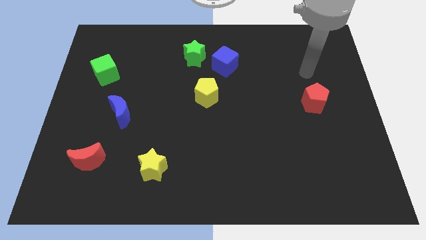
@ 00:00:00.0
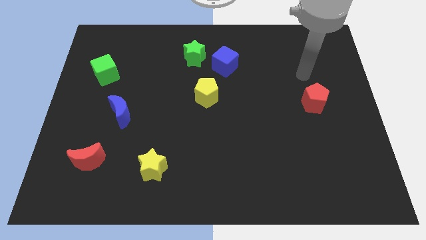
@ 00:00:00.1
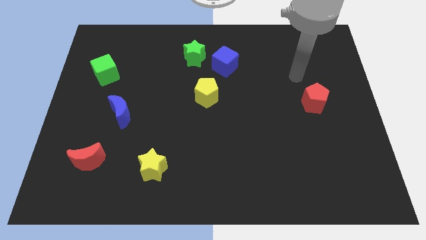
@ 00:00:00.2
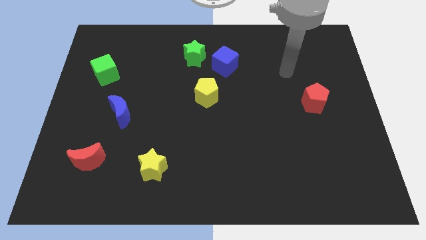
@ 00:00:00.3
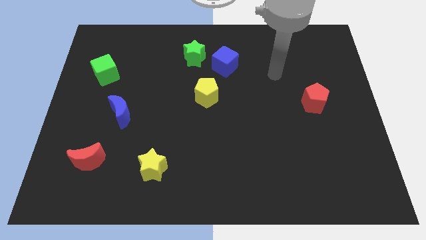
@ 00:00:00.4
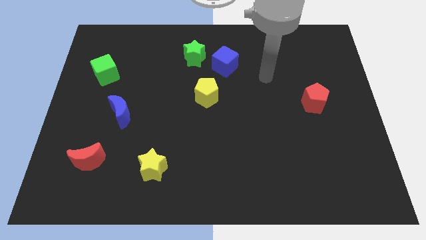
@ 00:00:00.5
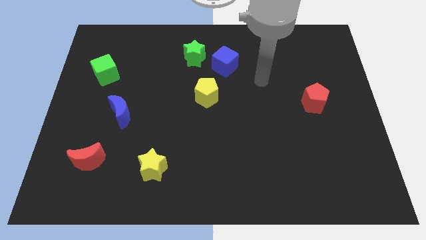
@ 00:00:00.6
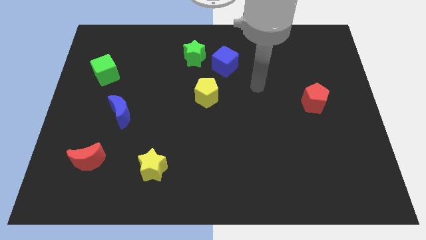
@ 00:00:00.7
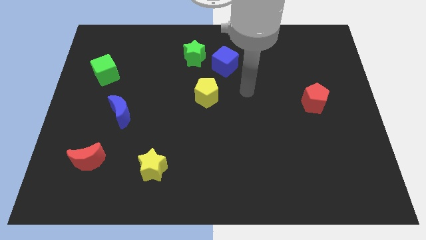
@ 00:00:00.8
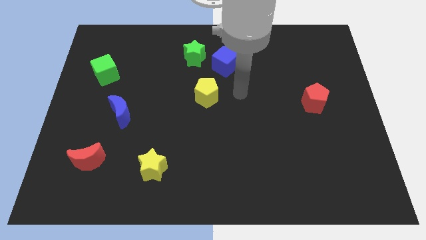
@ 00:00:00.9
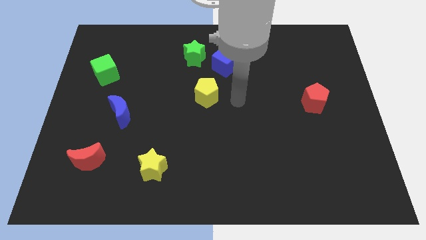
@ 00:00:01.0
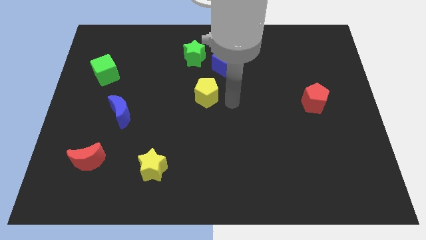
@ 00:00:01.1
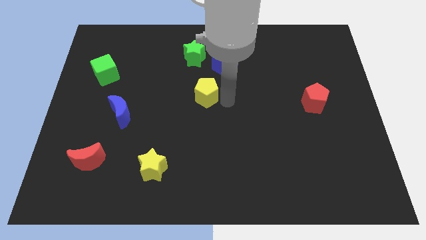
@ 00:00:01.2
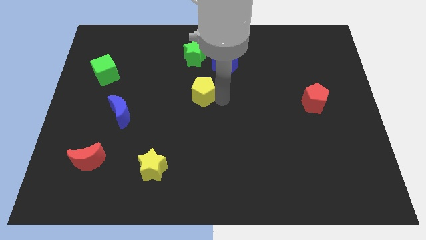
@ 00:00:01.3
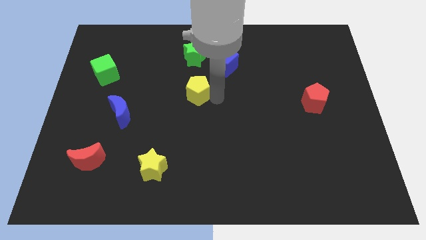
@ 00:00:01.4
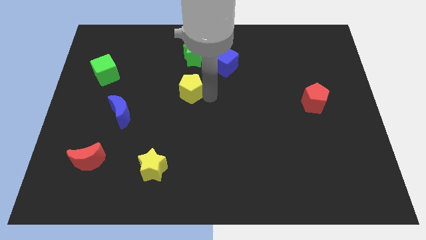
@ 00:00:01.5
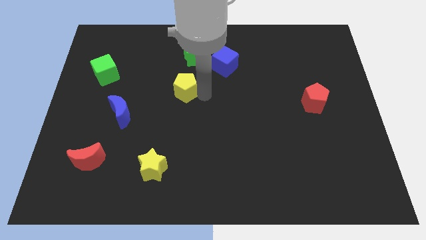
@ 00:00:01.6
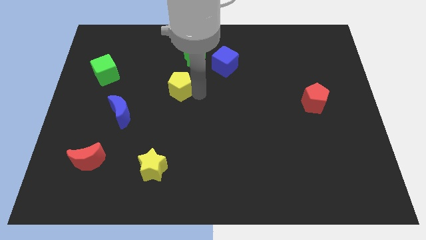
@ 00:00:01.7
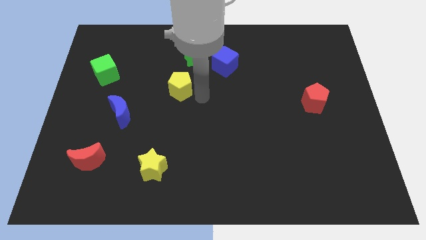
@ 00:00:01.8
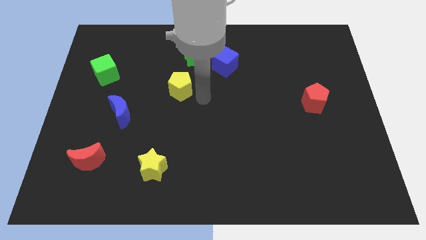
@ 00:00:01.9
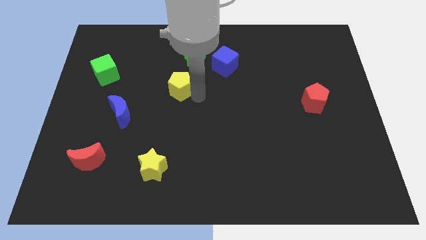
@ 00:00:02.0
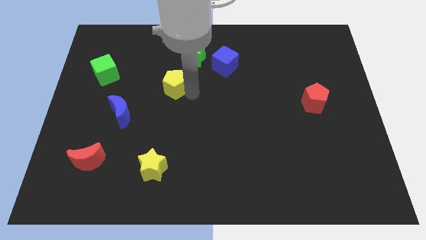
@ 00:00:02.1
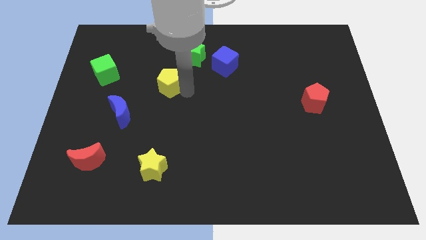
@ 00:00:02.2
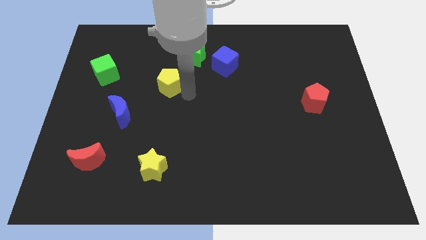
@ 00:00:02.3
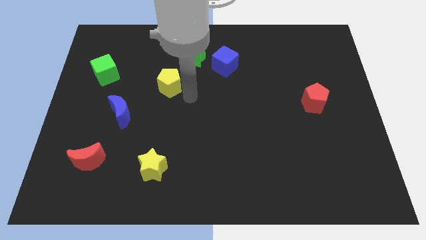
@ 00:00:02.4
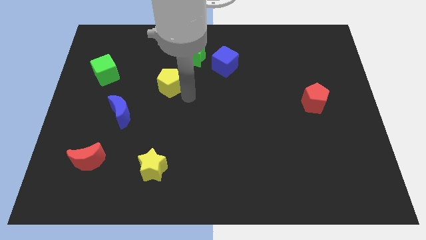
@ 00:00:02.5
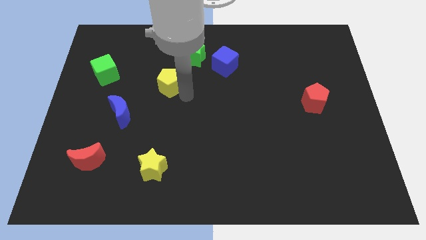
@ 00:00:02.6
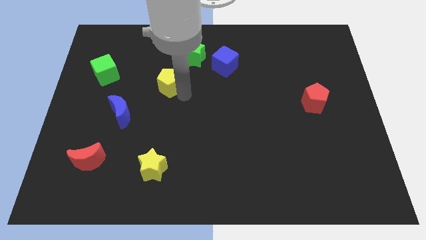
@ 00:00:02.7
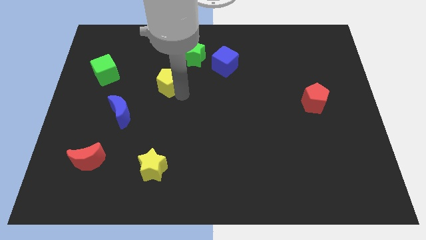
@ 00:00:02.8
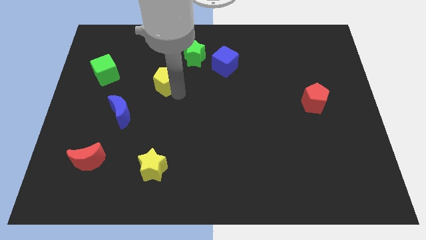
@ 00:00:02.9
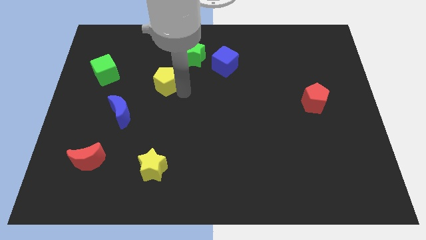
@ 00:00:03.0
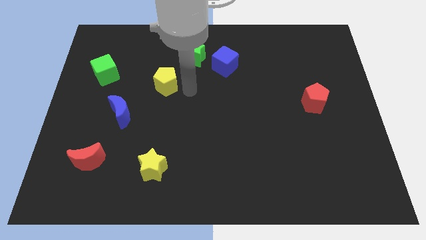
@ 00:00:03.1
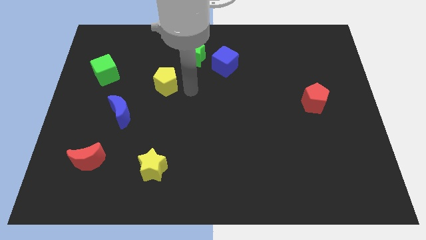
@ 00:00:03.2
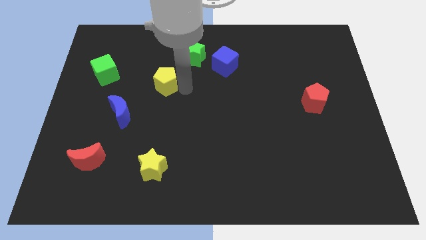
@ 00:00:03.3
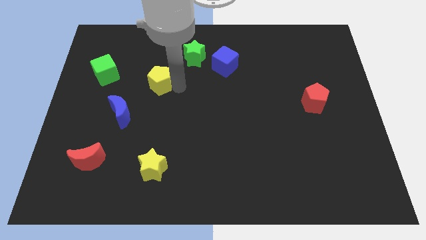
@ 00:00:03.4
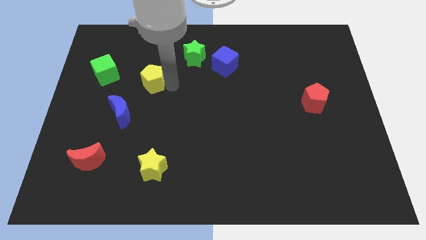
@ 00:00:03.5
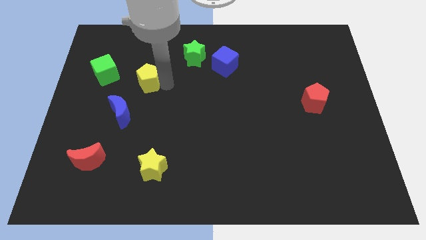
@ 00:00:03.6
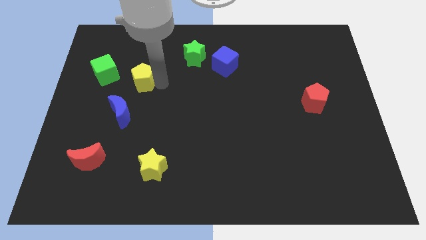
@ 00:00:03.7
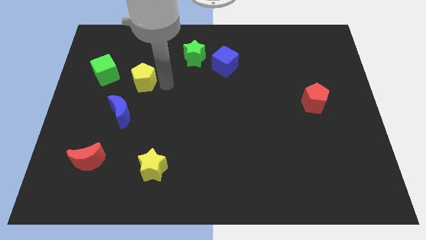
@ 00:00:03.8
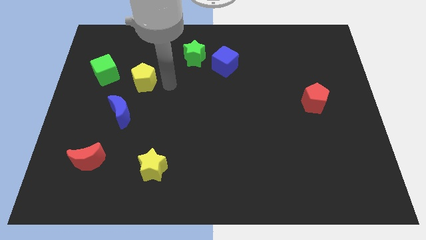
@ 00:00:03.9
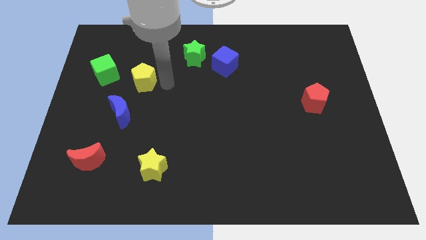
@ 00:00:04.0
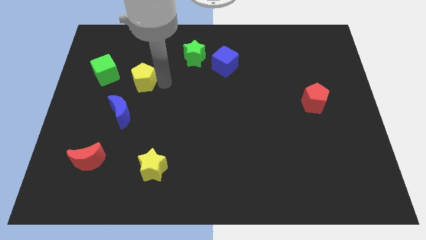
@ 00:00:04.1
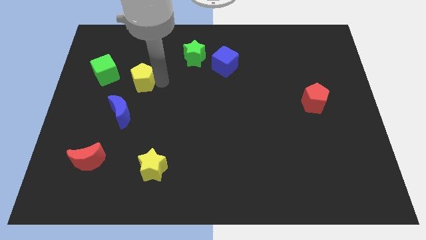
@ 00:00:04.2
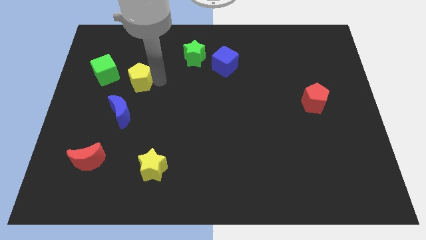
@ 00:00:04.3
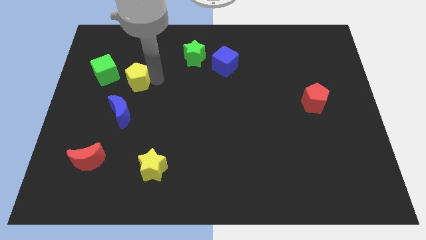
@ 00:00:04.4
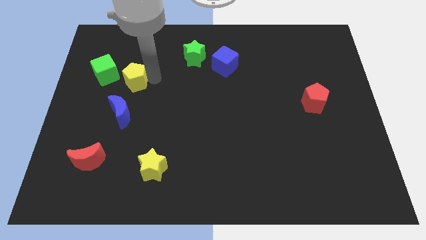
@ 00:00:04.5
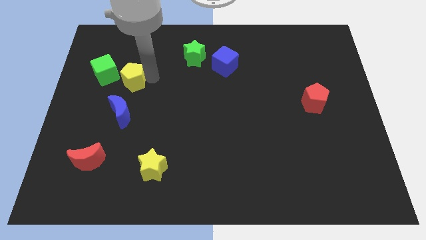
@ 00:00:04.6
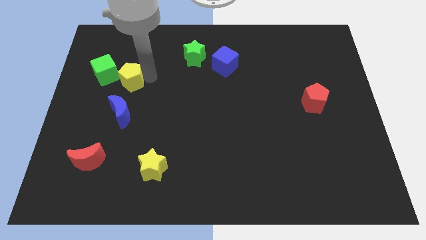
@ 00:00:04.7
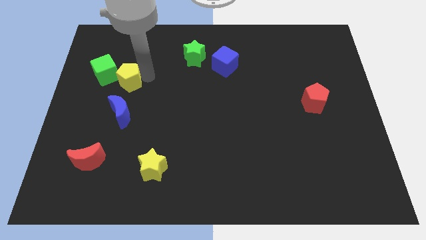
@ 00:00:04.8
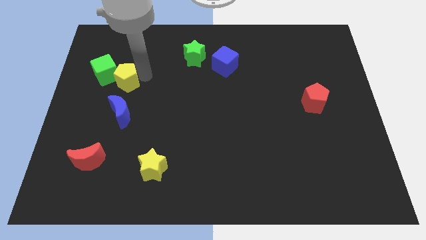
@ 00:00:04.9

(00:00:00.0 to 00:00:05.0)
slide the yellow pentagon to the green cube

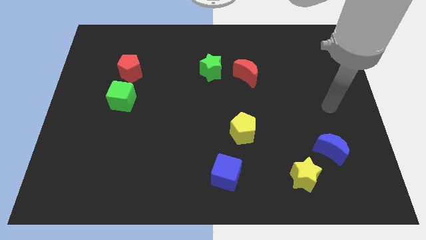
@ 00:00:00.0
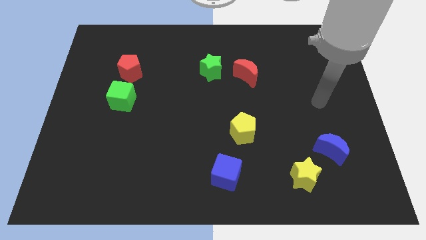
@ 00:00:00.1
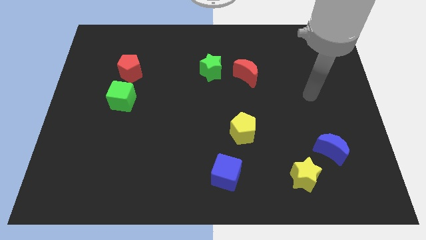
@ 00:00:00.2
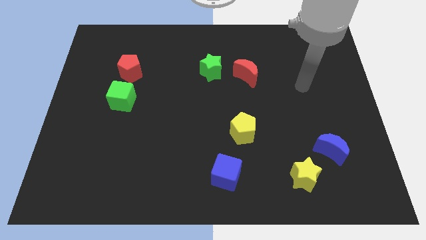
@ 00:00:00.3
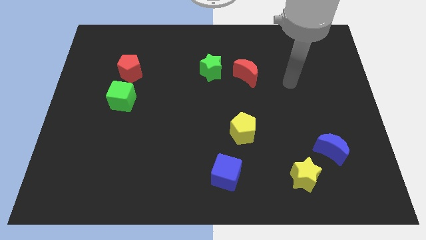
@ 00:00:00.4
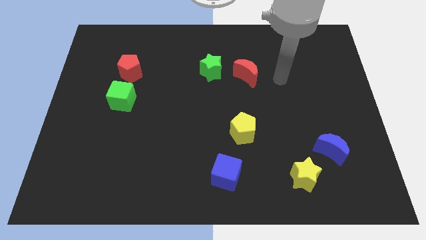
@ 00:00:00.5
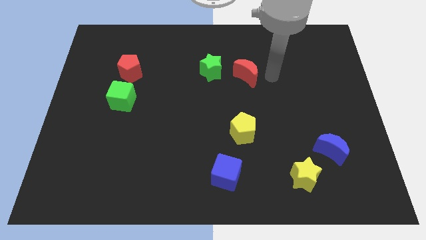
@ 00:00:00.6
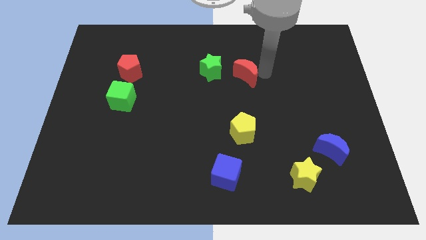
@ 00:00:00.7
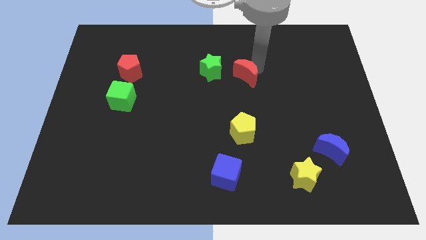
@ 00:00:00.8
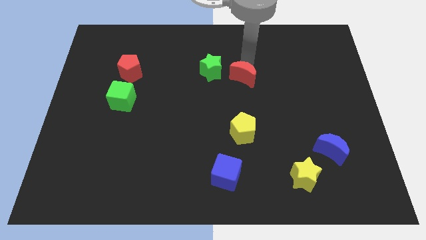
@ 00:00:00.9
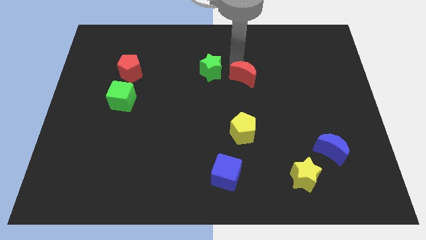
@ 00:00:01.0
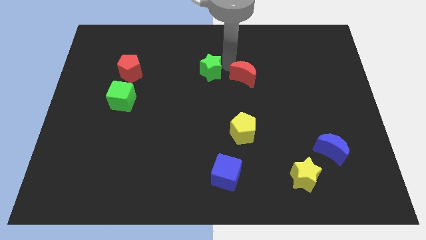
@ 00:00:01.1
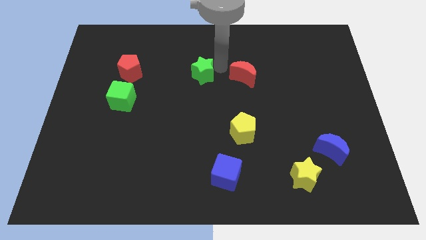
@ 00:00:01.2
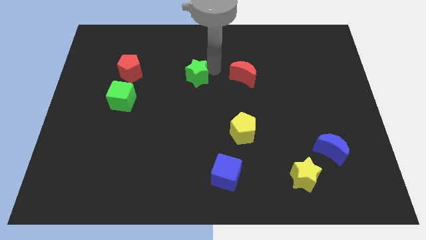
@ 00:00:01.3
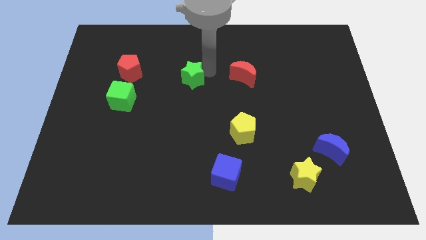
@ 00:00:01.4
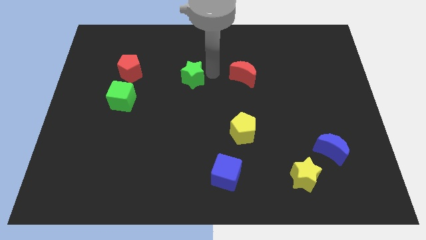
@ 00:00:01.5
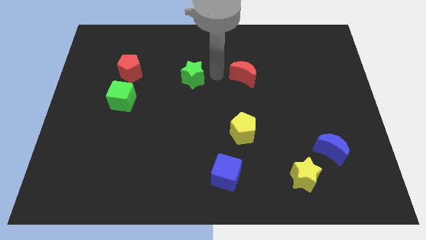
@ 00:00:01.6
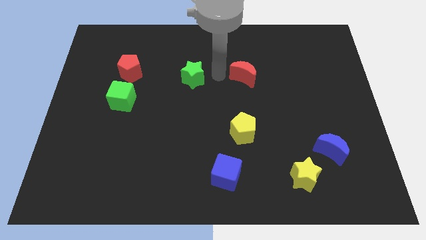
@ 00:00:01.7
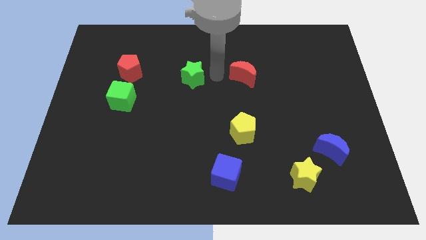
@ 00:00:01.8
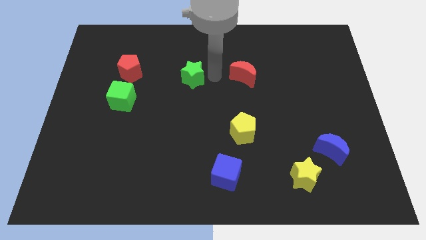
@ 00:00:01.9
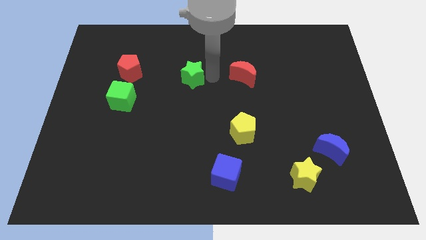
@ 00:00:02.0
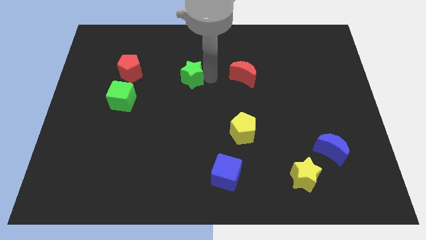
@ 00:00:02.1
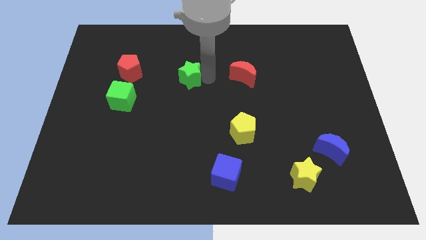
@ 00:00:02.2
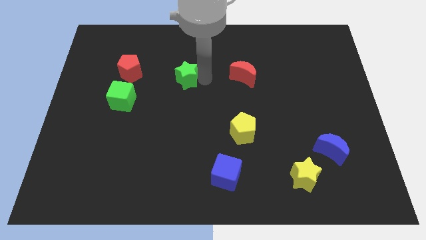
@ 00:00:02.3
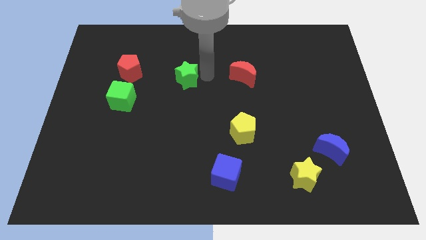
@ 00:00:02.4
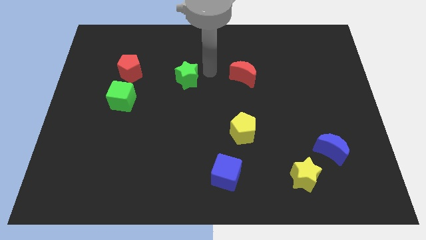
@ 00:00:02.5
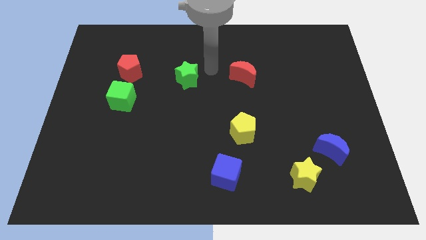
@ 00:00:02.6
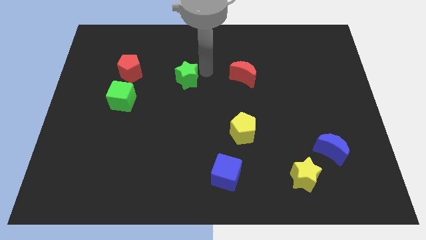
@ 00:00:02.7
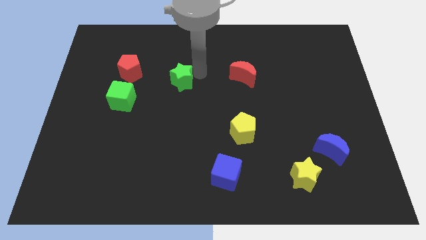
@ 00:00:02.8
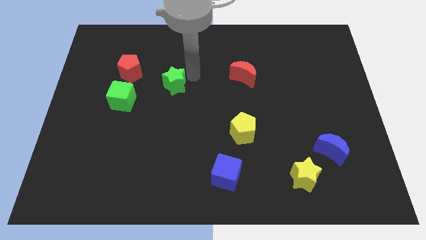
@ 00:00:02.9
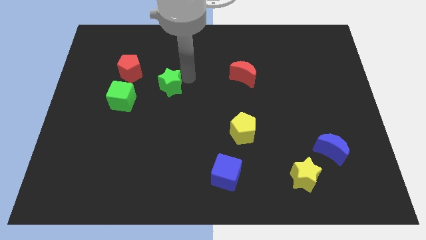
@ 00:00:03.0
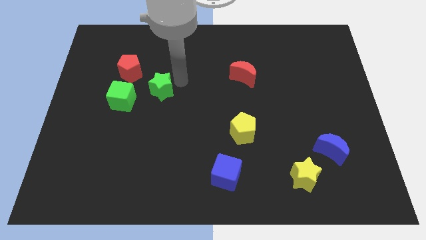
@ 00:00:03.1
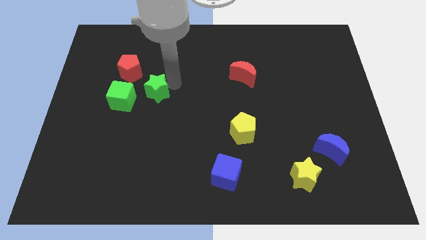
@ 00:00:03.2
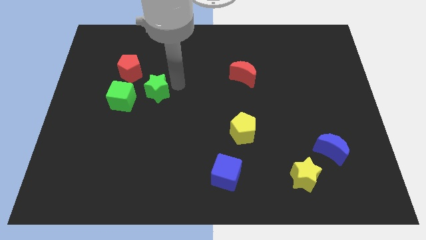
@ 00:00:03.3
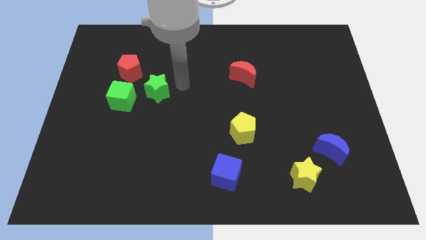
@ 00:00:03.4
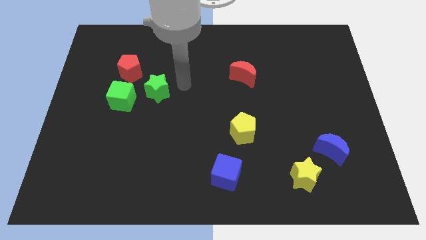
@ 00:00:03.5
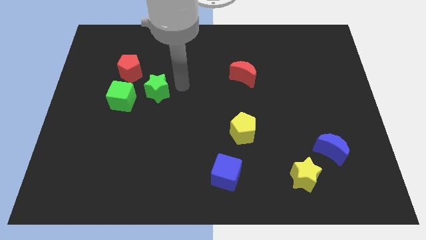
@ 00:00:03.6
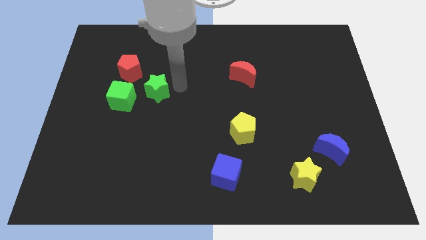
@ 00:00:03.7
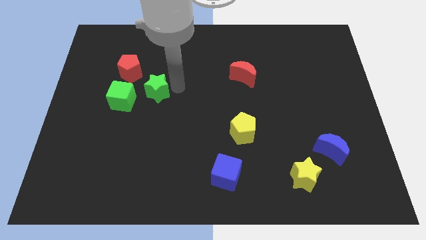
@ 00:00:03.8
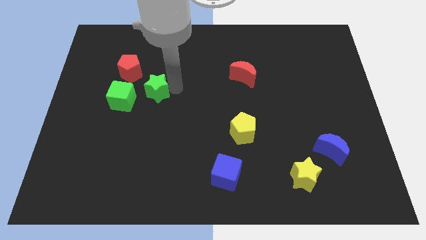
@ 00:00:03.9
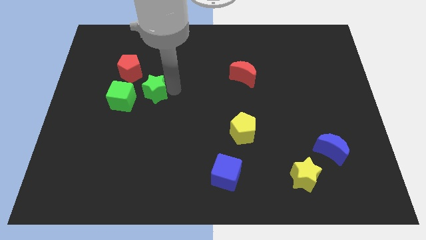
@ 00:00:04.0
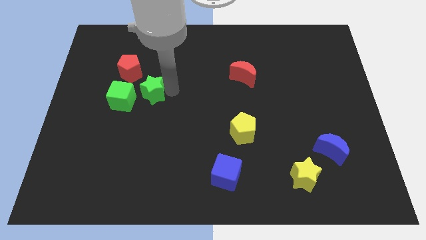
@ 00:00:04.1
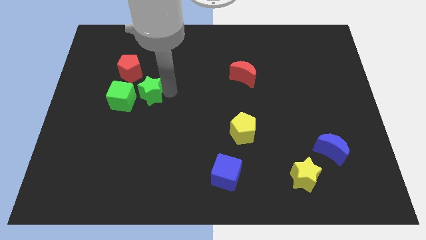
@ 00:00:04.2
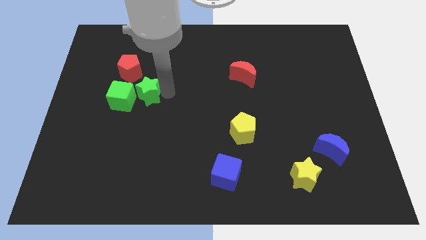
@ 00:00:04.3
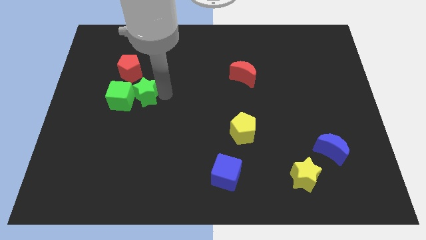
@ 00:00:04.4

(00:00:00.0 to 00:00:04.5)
push the green star to the green cube
